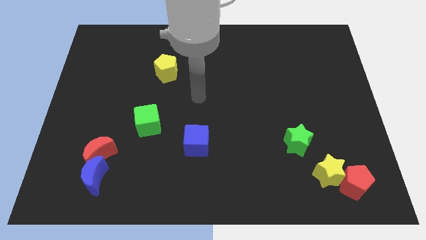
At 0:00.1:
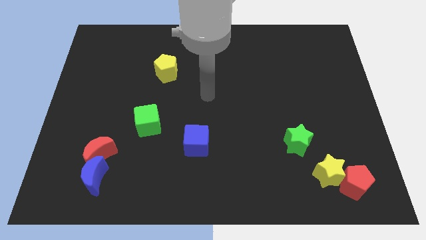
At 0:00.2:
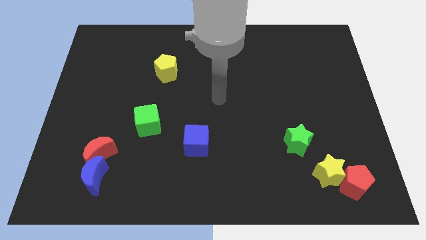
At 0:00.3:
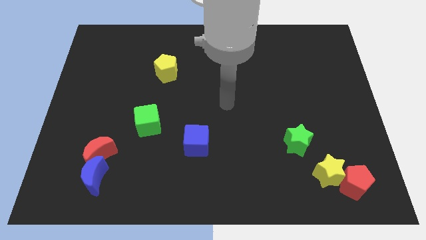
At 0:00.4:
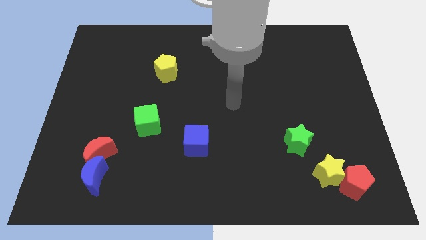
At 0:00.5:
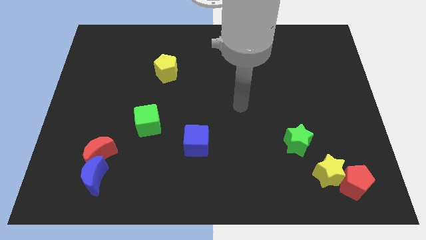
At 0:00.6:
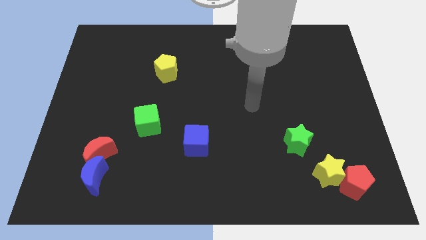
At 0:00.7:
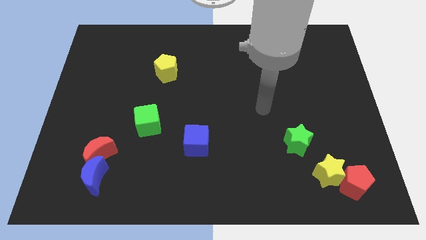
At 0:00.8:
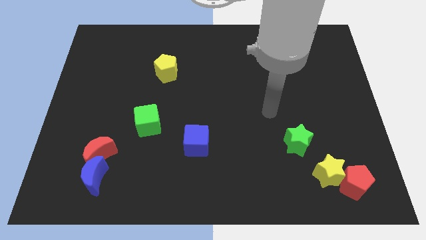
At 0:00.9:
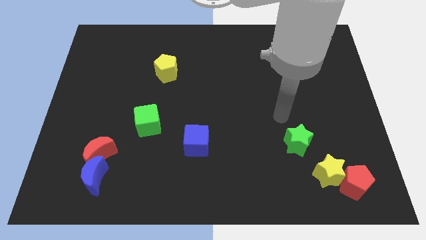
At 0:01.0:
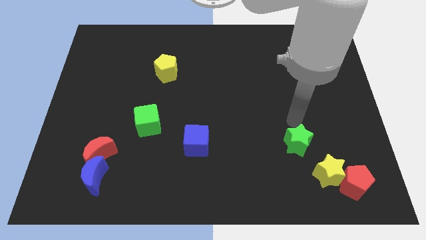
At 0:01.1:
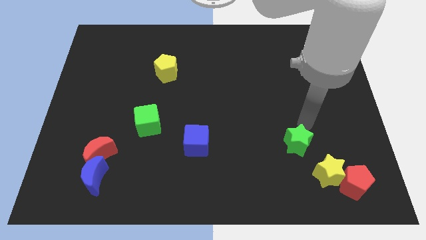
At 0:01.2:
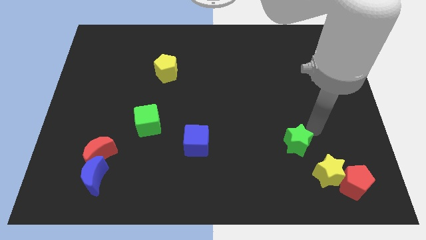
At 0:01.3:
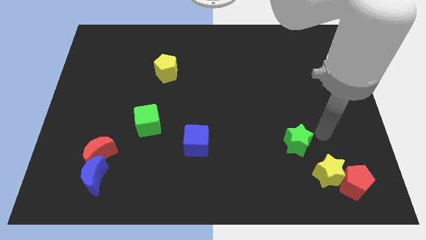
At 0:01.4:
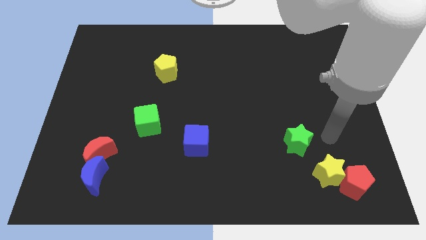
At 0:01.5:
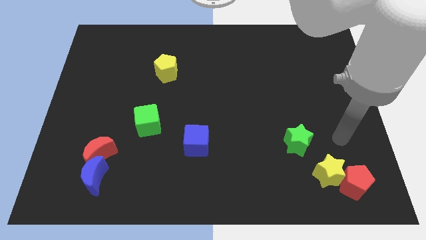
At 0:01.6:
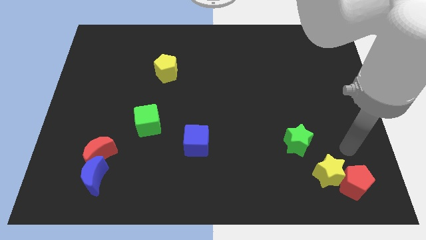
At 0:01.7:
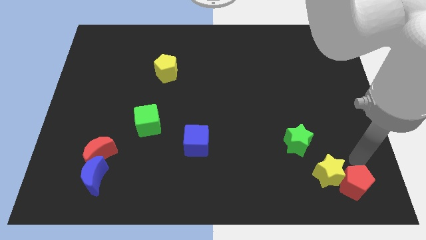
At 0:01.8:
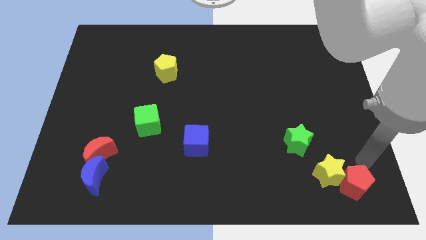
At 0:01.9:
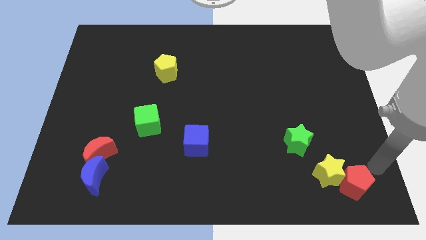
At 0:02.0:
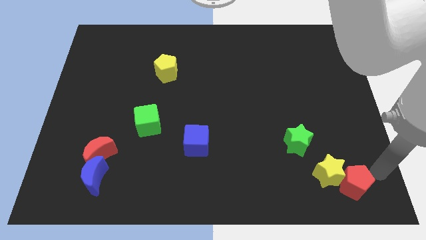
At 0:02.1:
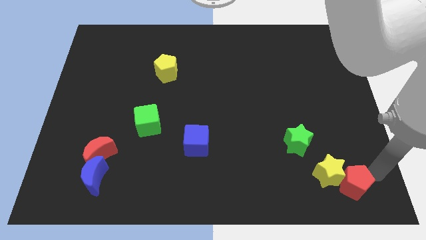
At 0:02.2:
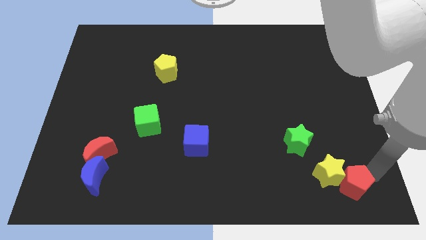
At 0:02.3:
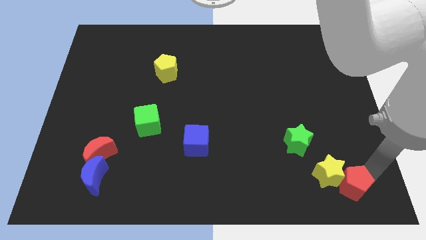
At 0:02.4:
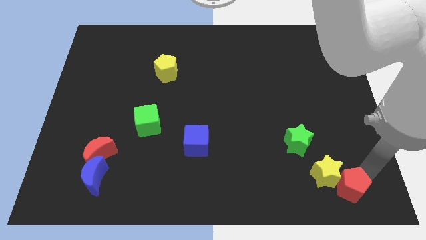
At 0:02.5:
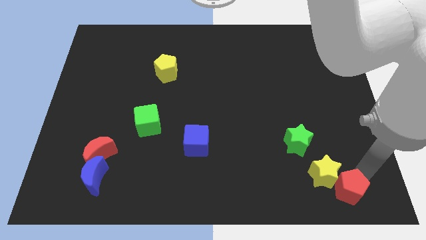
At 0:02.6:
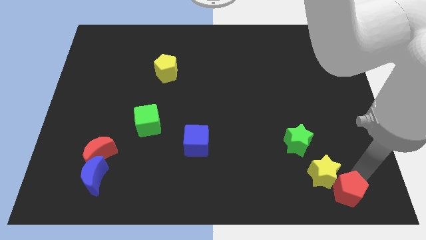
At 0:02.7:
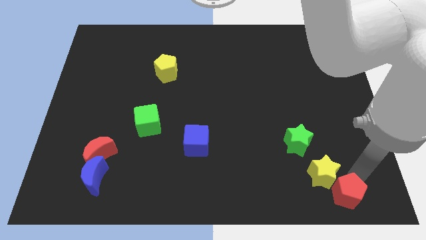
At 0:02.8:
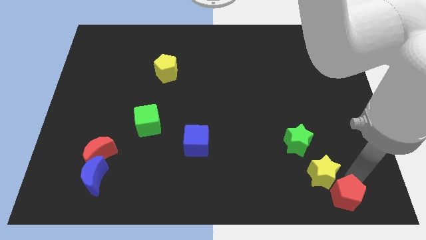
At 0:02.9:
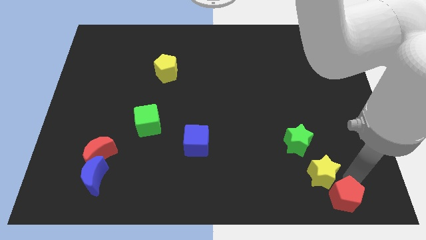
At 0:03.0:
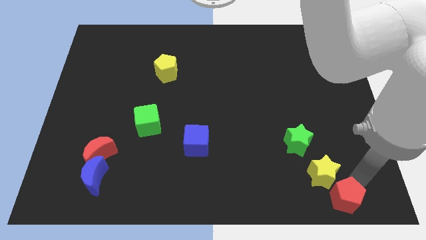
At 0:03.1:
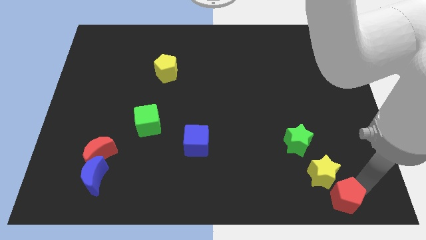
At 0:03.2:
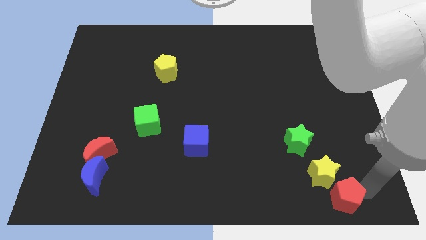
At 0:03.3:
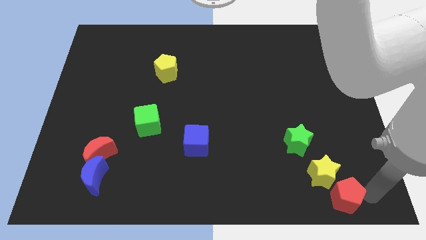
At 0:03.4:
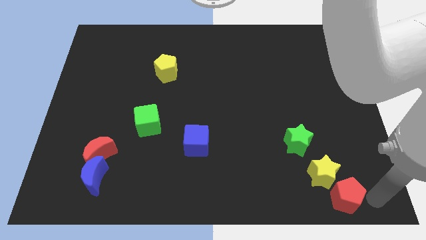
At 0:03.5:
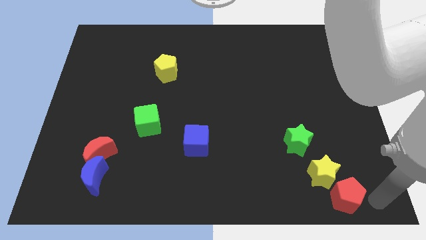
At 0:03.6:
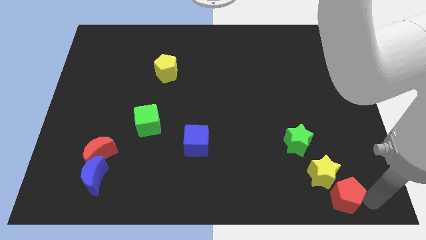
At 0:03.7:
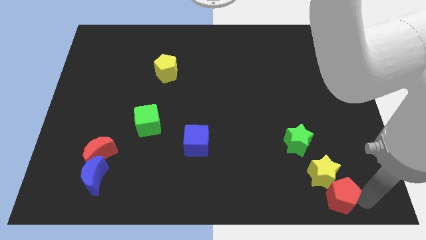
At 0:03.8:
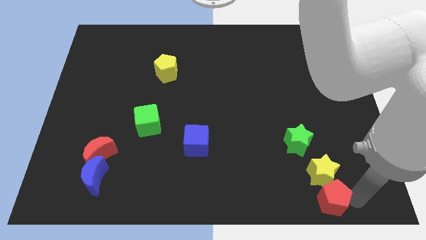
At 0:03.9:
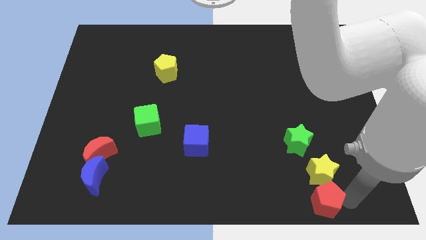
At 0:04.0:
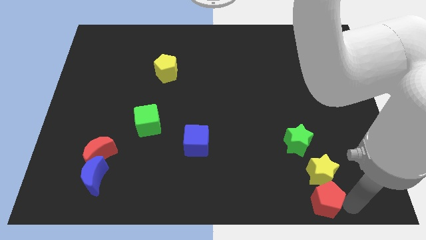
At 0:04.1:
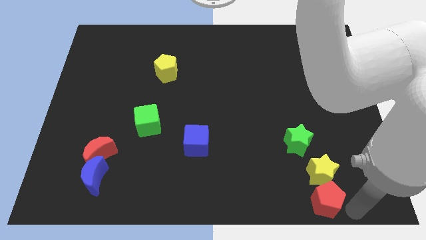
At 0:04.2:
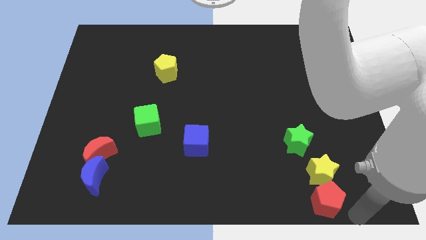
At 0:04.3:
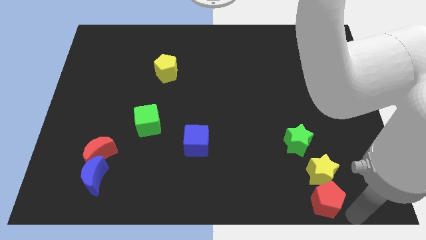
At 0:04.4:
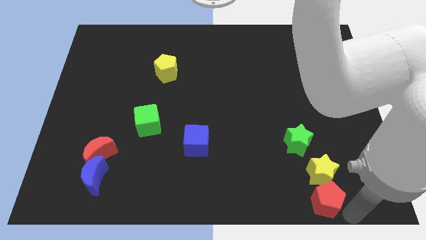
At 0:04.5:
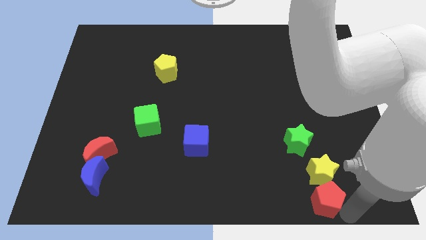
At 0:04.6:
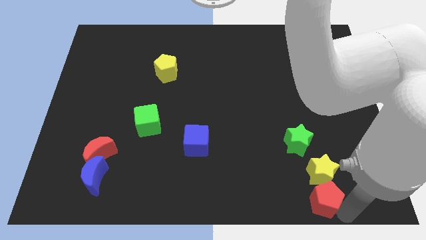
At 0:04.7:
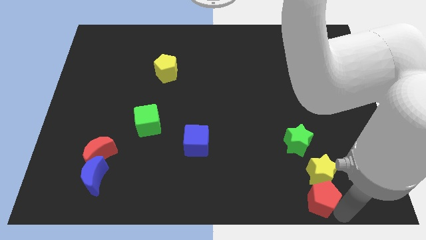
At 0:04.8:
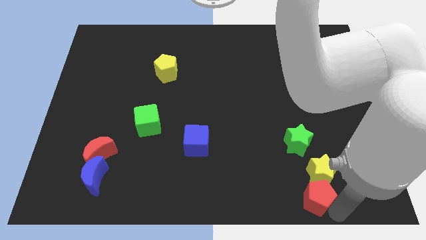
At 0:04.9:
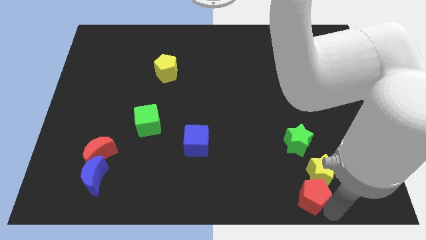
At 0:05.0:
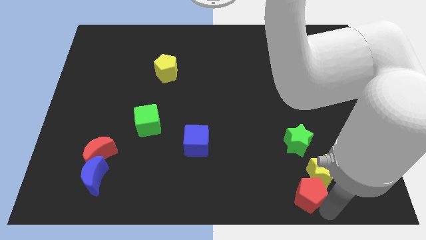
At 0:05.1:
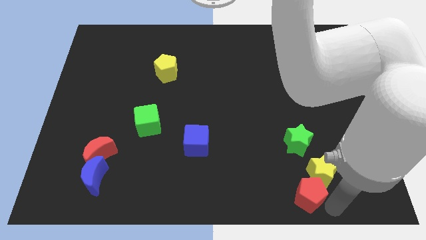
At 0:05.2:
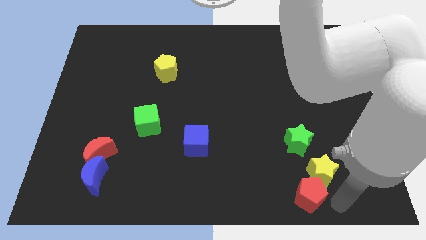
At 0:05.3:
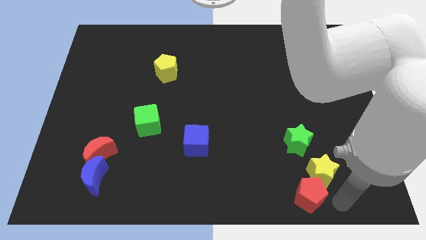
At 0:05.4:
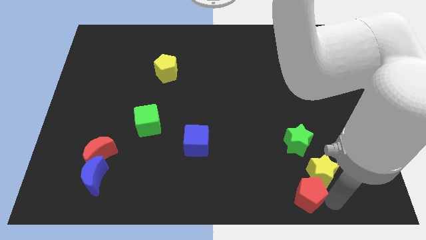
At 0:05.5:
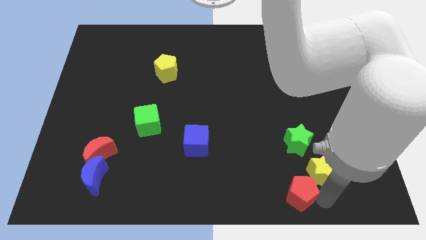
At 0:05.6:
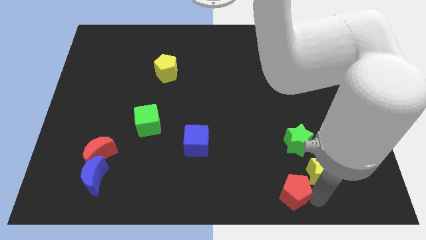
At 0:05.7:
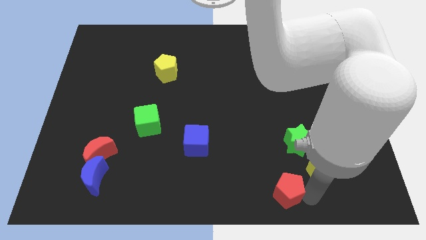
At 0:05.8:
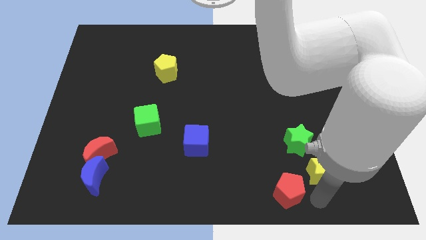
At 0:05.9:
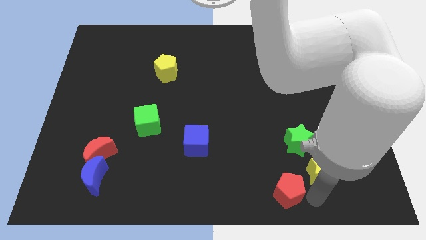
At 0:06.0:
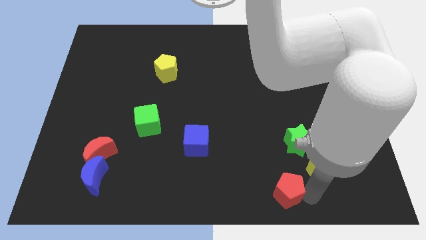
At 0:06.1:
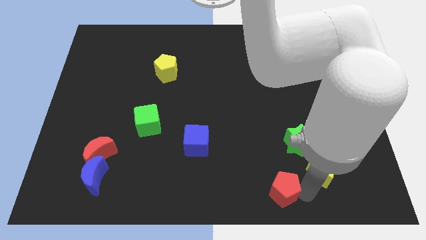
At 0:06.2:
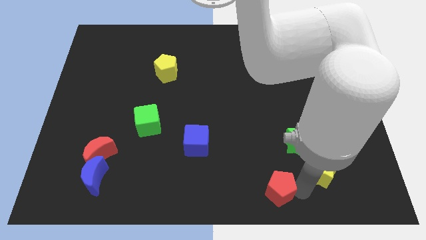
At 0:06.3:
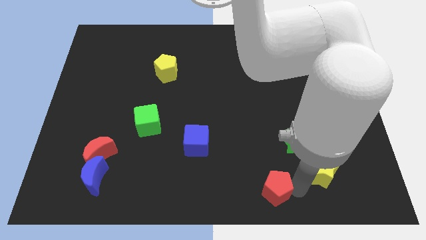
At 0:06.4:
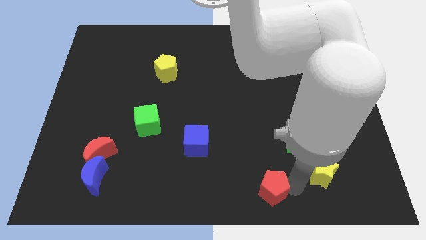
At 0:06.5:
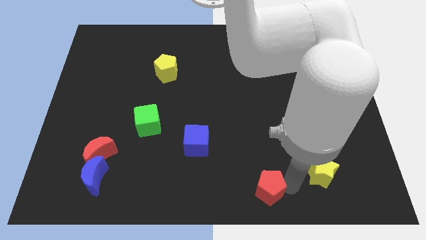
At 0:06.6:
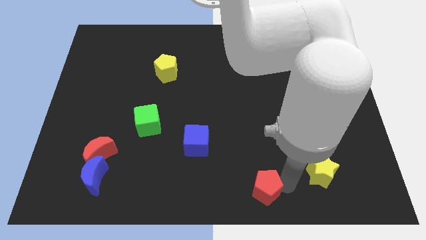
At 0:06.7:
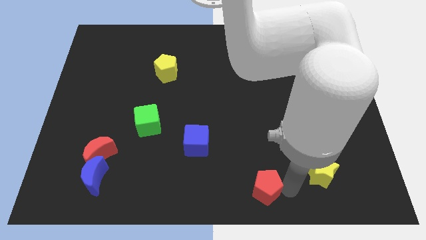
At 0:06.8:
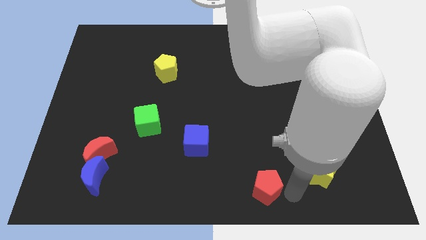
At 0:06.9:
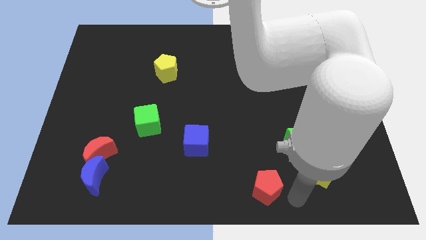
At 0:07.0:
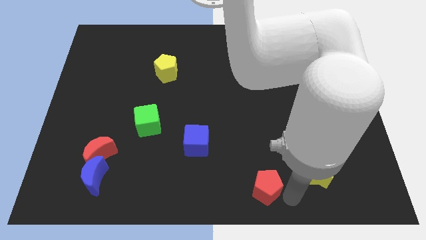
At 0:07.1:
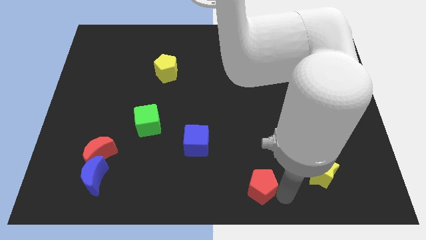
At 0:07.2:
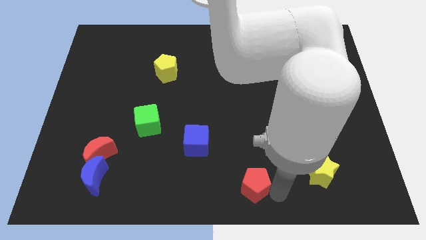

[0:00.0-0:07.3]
slide the red pentagon to the left

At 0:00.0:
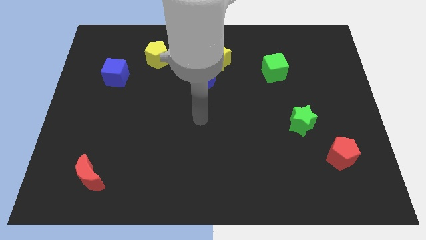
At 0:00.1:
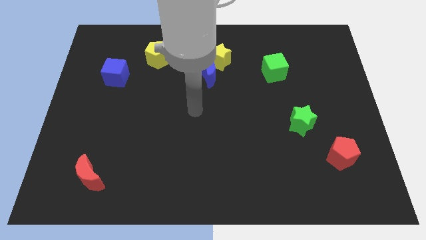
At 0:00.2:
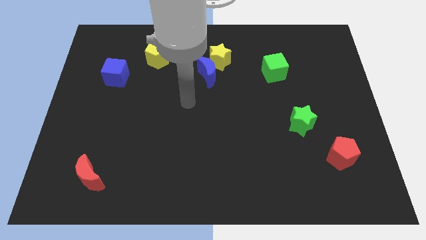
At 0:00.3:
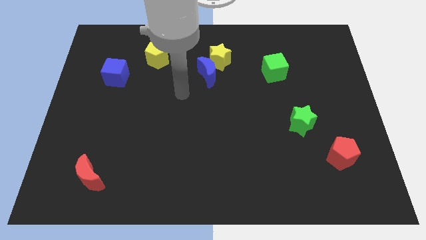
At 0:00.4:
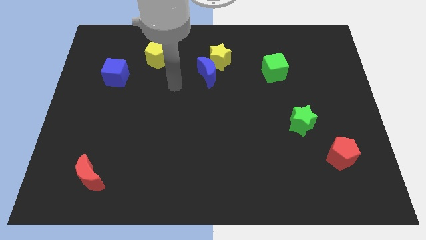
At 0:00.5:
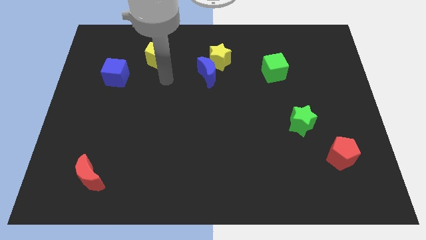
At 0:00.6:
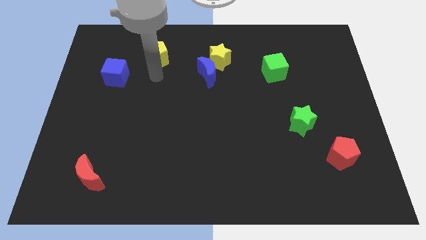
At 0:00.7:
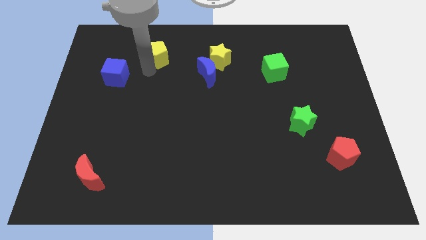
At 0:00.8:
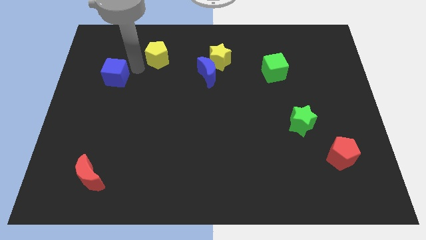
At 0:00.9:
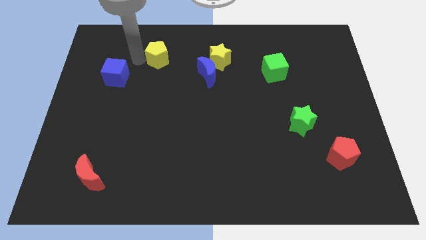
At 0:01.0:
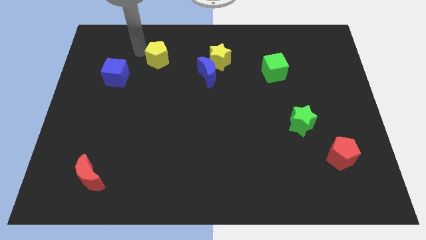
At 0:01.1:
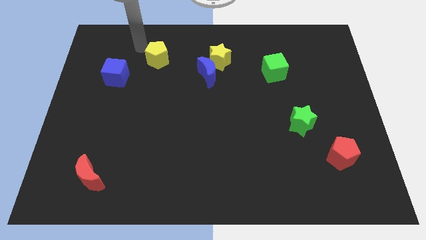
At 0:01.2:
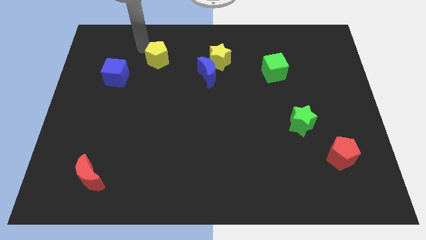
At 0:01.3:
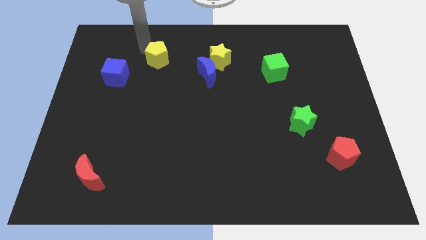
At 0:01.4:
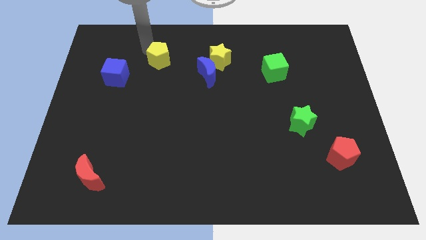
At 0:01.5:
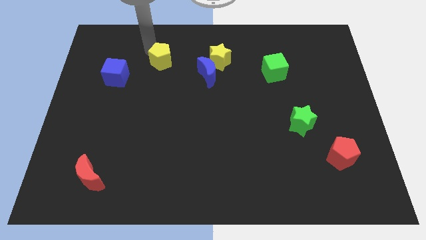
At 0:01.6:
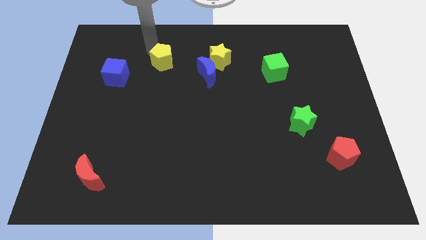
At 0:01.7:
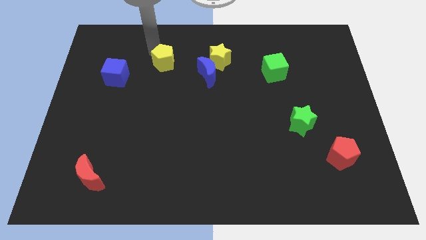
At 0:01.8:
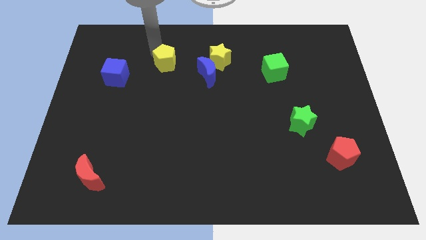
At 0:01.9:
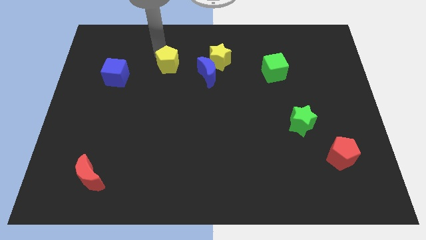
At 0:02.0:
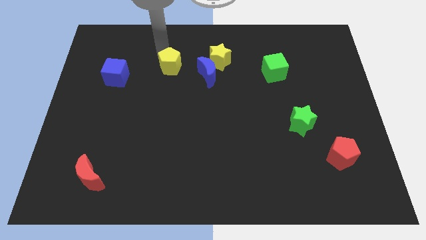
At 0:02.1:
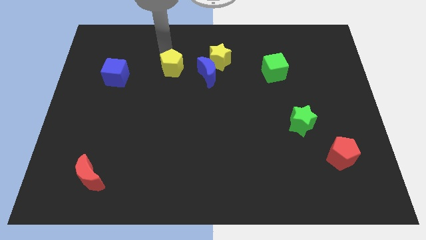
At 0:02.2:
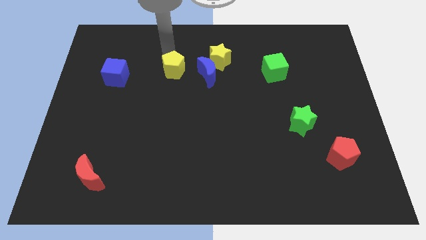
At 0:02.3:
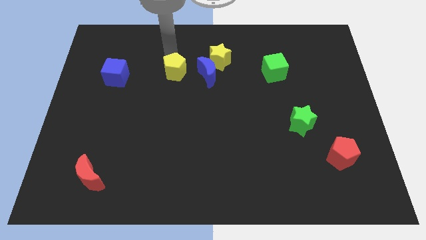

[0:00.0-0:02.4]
slide the yellow pentagon a little bit downwards and then right
